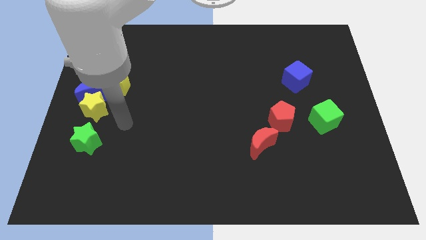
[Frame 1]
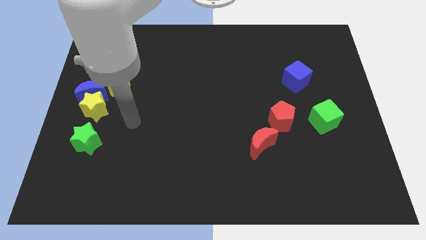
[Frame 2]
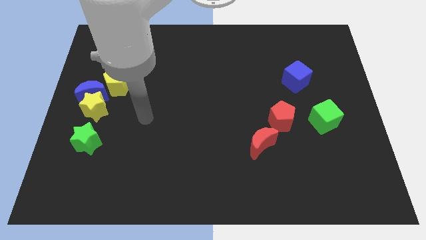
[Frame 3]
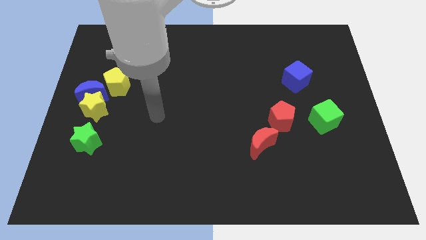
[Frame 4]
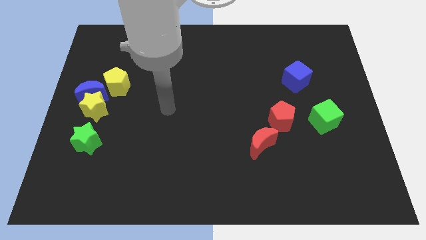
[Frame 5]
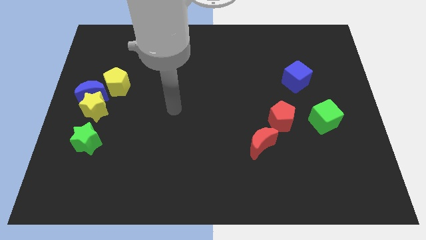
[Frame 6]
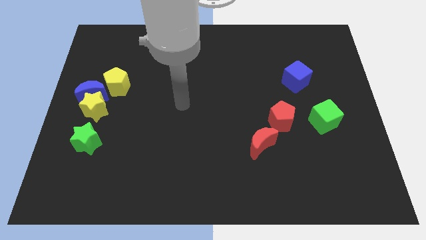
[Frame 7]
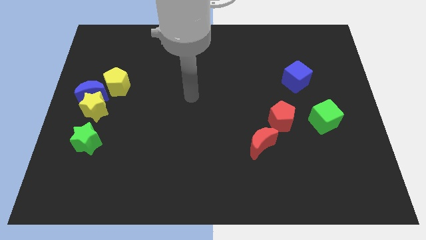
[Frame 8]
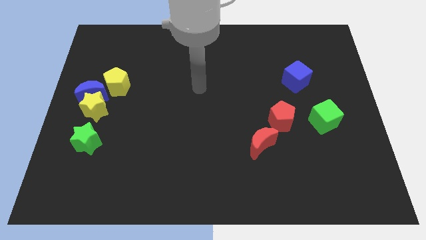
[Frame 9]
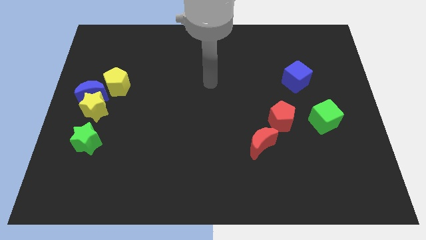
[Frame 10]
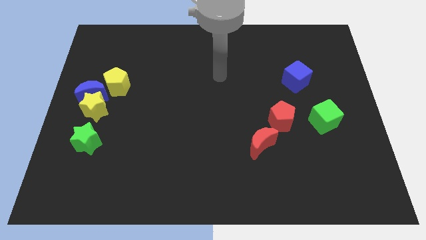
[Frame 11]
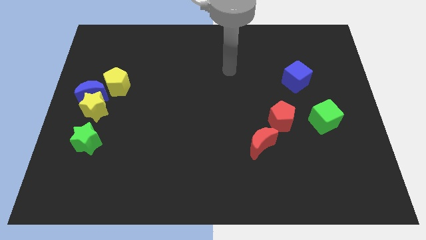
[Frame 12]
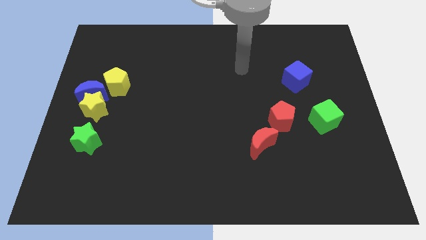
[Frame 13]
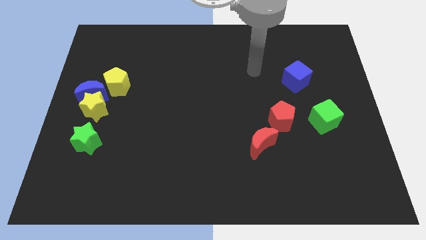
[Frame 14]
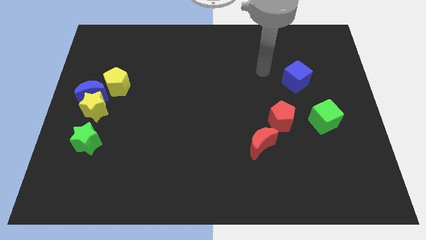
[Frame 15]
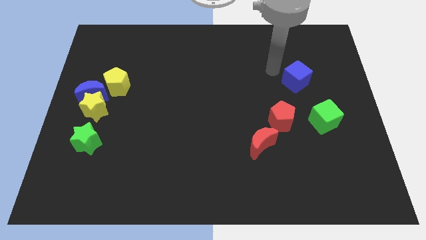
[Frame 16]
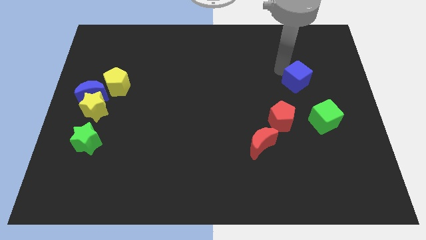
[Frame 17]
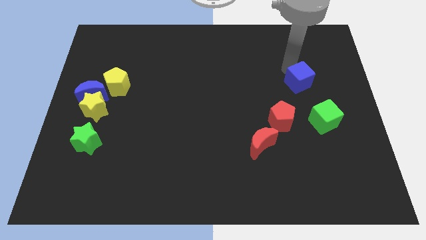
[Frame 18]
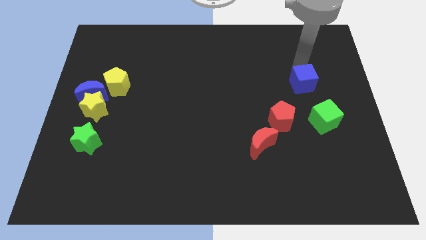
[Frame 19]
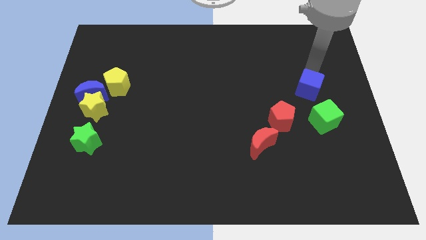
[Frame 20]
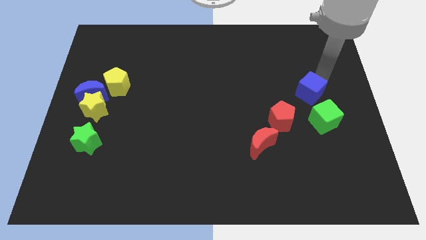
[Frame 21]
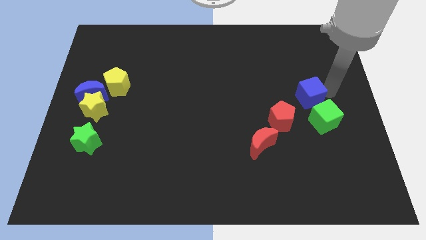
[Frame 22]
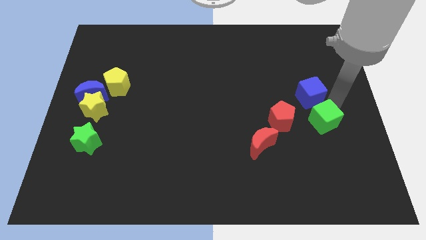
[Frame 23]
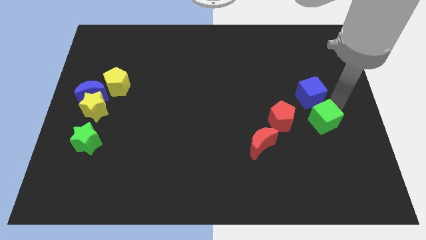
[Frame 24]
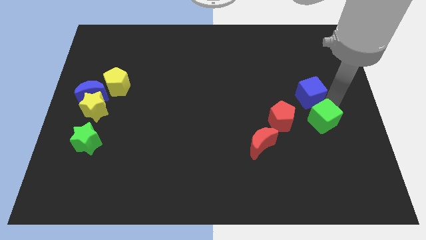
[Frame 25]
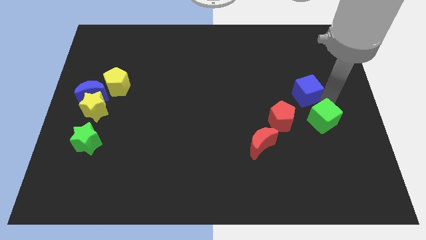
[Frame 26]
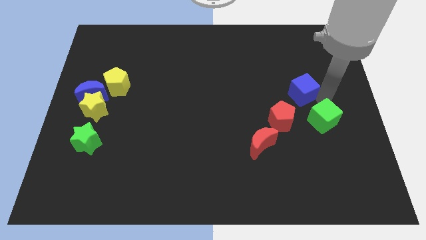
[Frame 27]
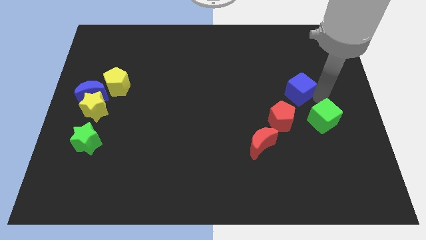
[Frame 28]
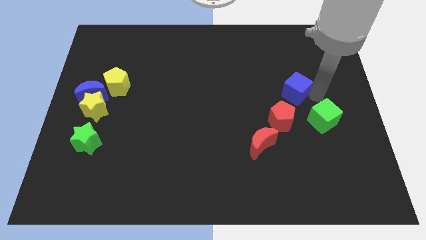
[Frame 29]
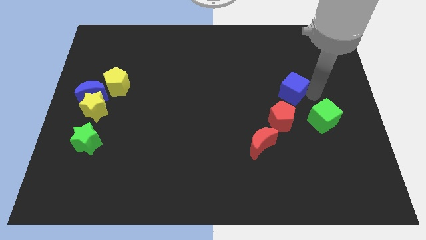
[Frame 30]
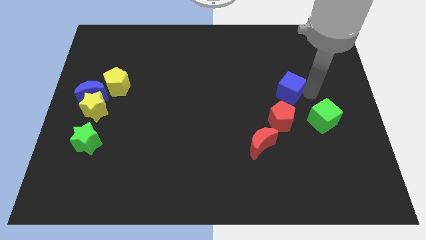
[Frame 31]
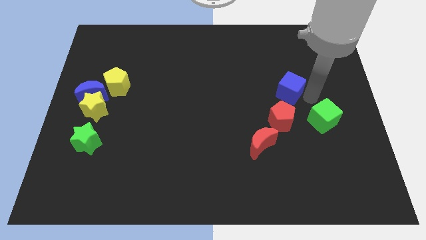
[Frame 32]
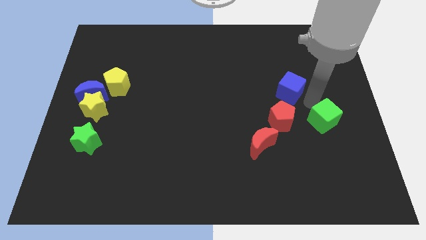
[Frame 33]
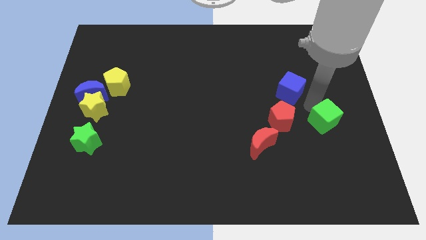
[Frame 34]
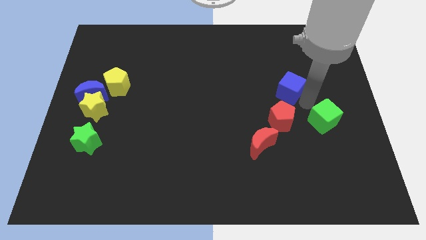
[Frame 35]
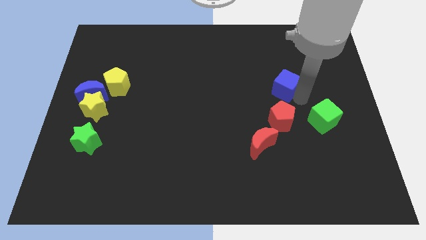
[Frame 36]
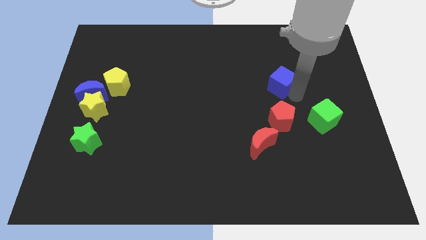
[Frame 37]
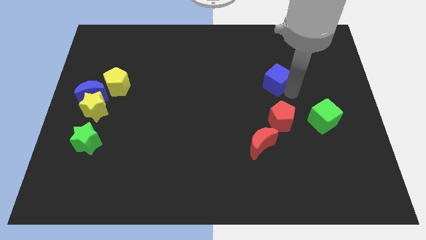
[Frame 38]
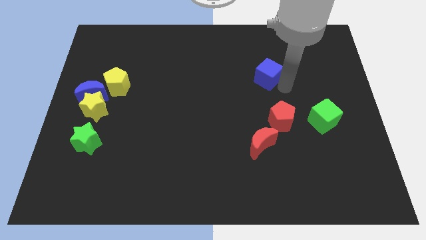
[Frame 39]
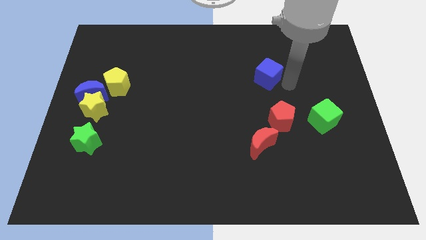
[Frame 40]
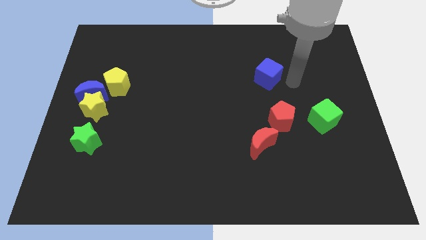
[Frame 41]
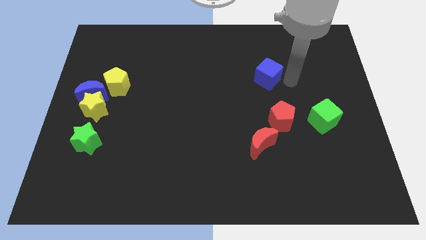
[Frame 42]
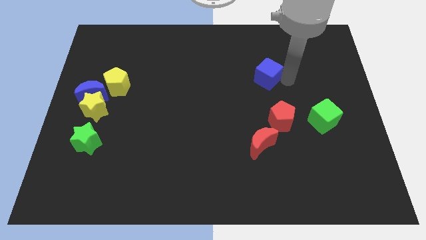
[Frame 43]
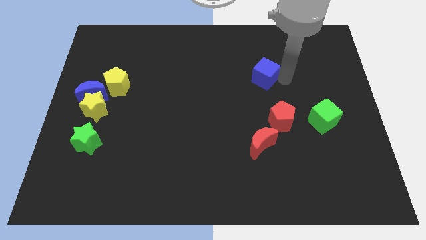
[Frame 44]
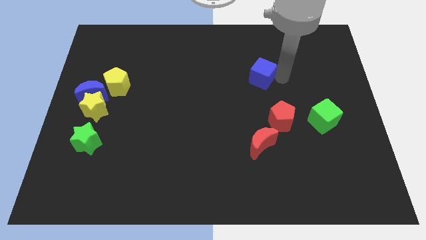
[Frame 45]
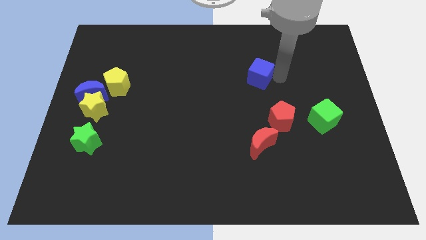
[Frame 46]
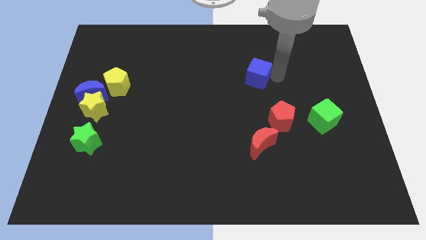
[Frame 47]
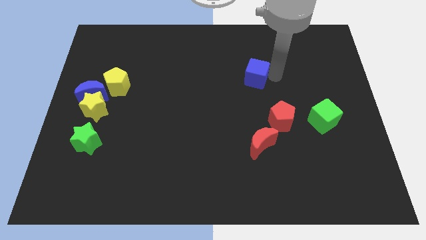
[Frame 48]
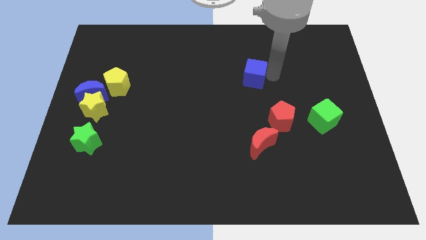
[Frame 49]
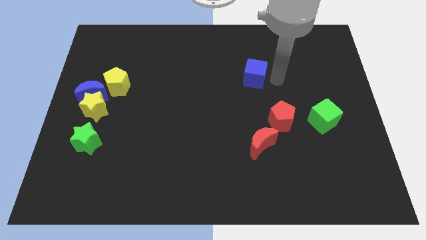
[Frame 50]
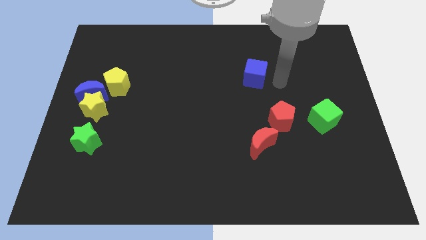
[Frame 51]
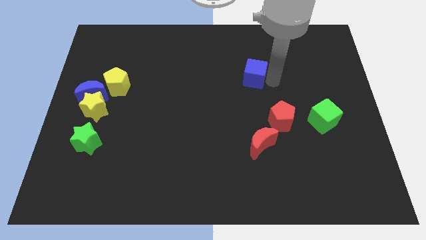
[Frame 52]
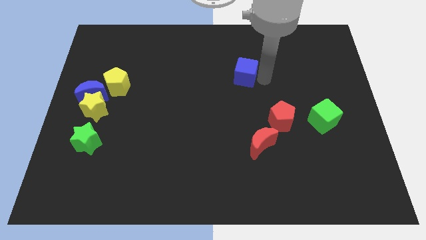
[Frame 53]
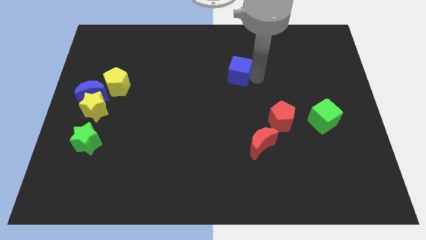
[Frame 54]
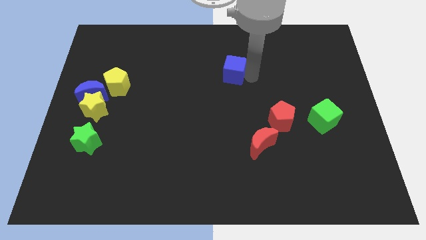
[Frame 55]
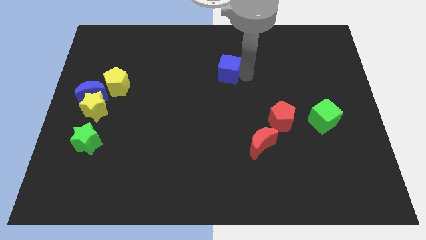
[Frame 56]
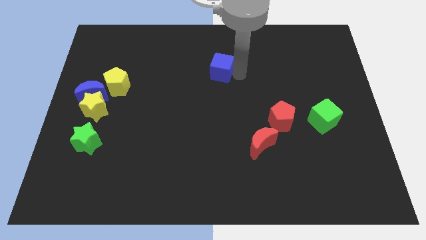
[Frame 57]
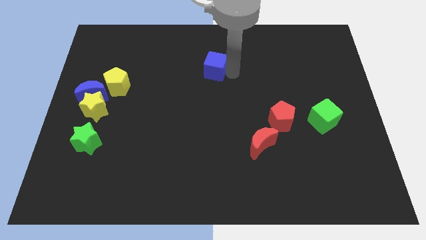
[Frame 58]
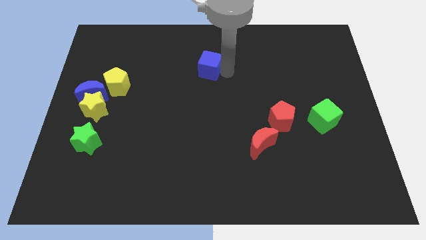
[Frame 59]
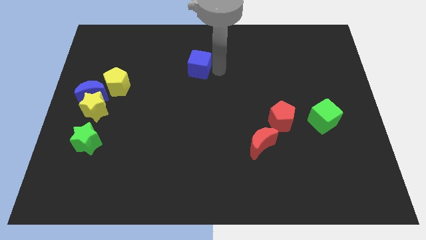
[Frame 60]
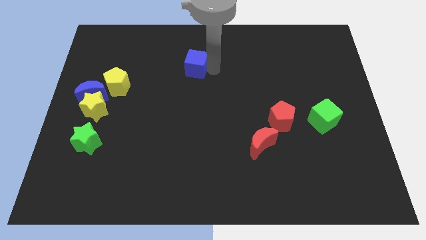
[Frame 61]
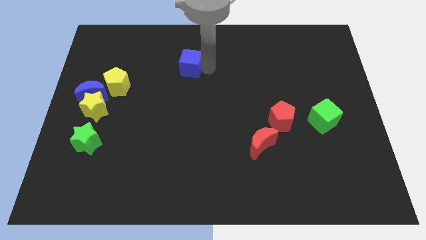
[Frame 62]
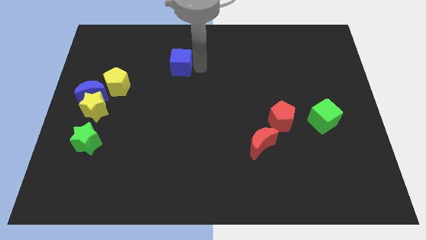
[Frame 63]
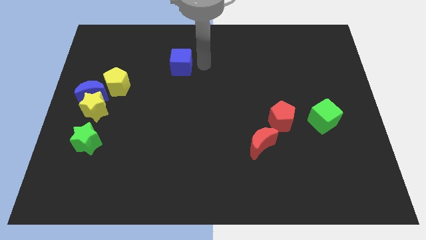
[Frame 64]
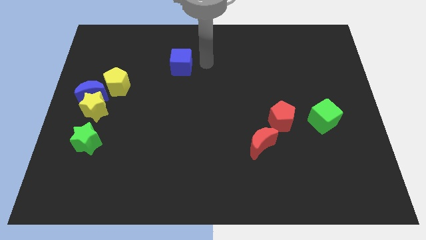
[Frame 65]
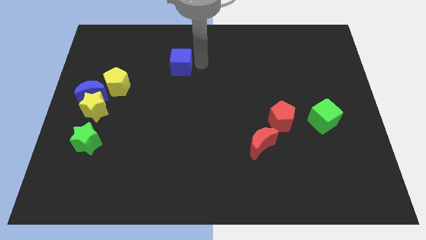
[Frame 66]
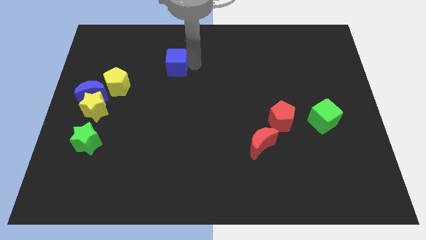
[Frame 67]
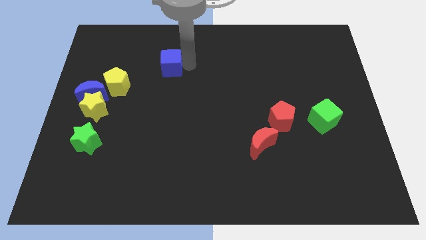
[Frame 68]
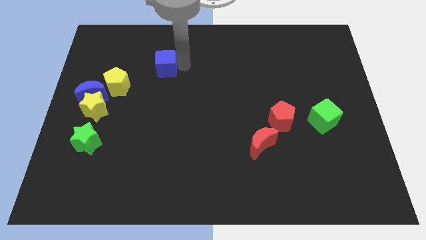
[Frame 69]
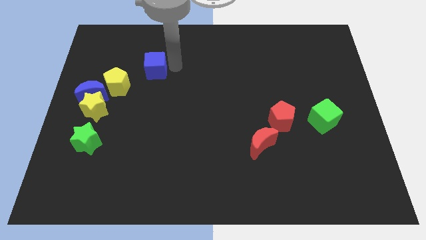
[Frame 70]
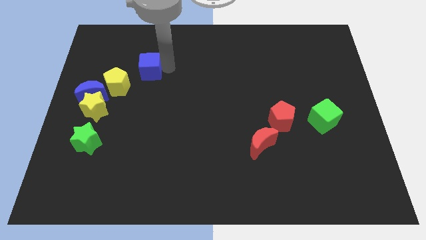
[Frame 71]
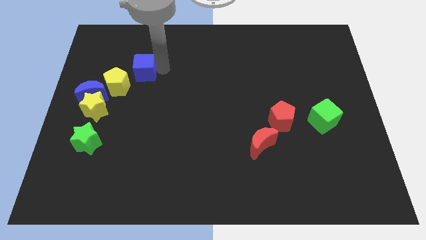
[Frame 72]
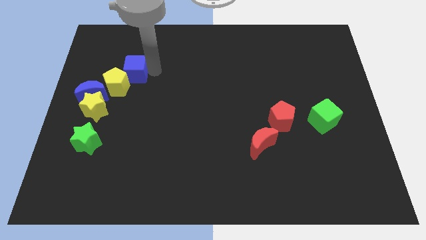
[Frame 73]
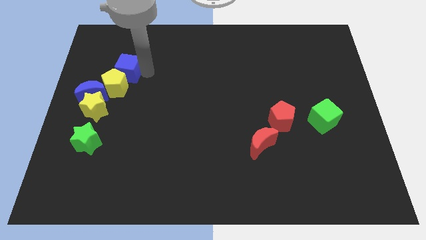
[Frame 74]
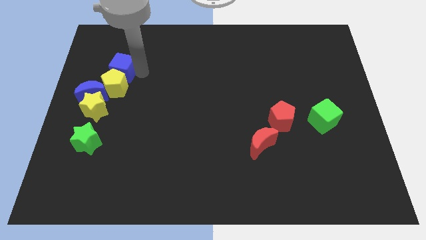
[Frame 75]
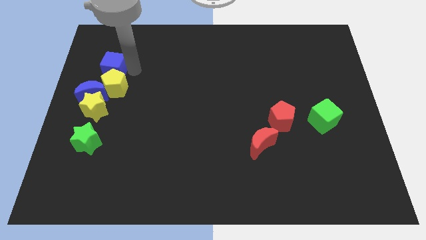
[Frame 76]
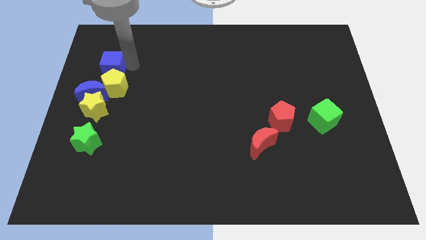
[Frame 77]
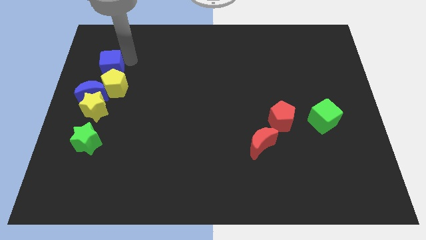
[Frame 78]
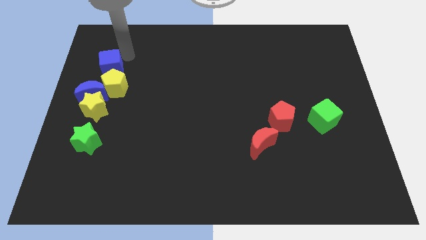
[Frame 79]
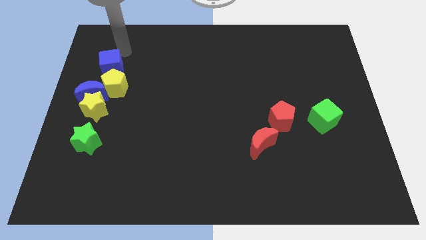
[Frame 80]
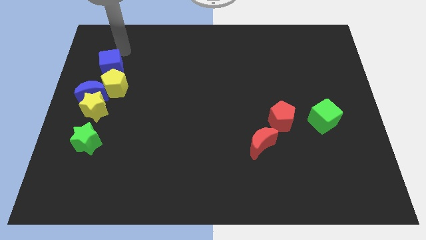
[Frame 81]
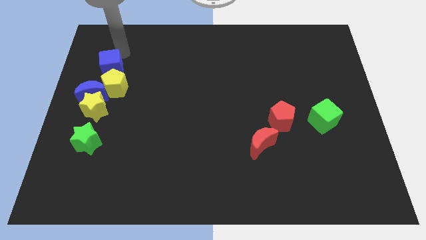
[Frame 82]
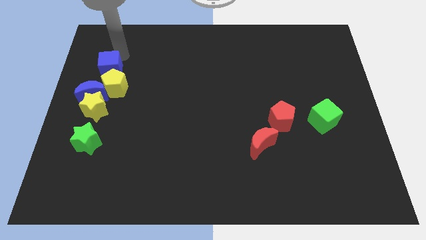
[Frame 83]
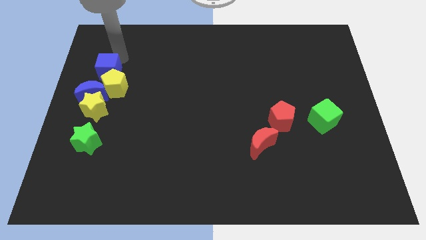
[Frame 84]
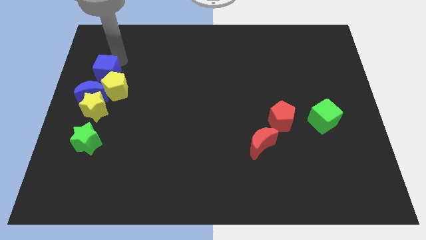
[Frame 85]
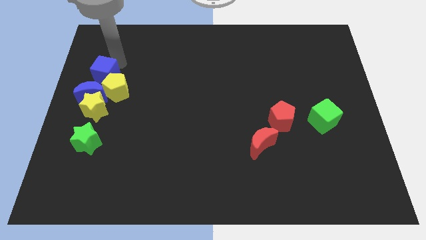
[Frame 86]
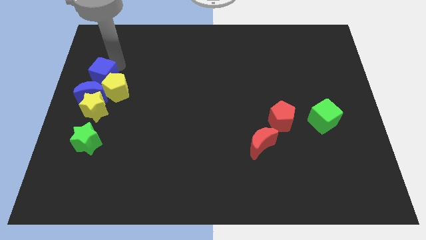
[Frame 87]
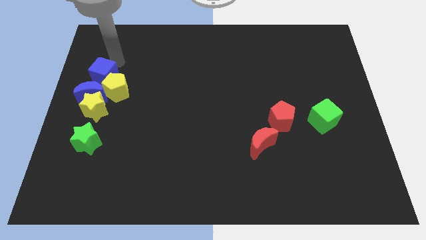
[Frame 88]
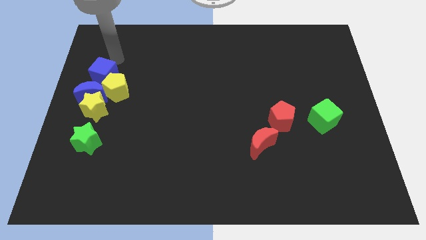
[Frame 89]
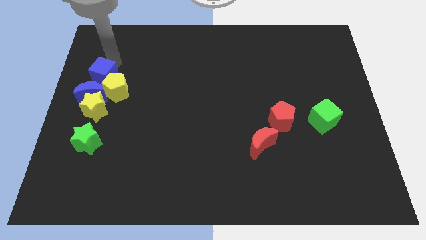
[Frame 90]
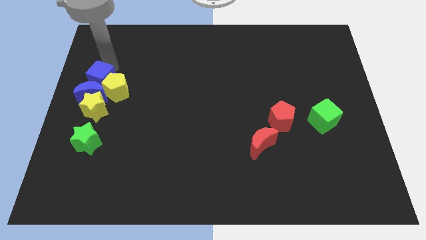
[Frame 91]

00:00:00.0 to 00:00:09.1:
slide the blue cube towards the blue moon
